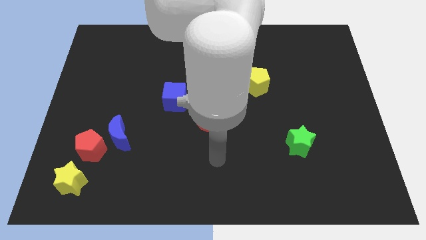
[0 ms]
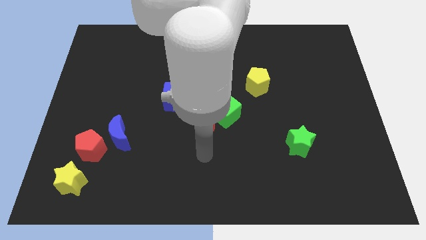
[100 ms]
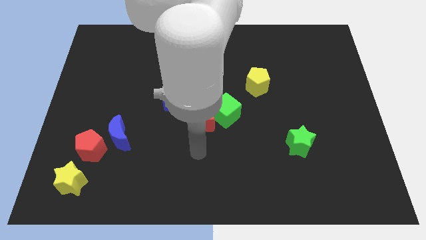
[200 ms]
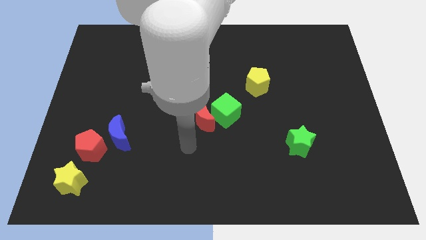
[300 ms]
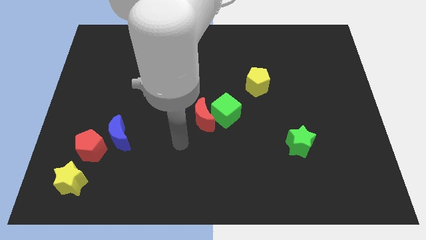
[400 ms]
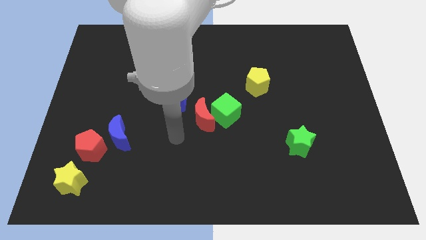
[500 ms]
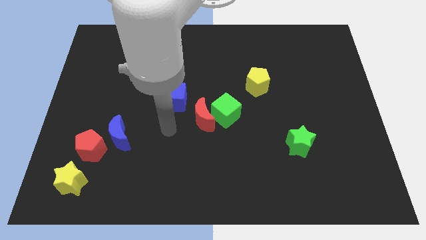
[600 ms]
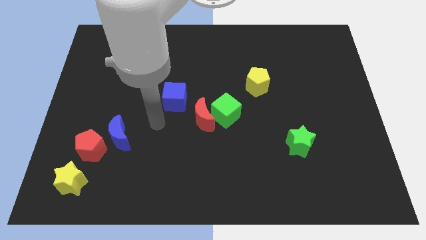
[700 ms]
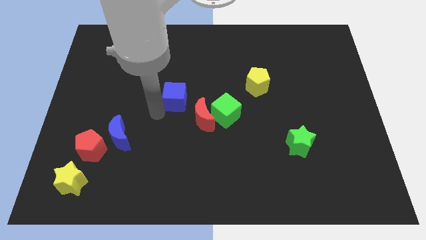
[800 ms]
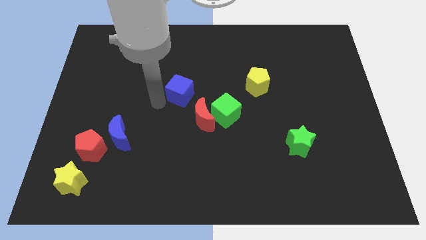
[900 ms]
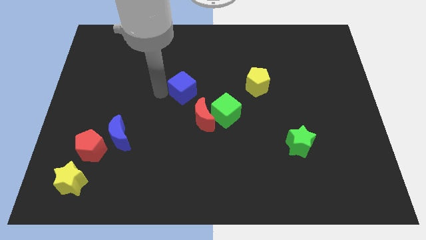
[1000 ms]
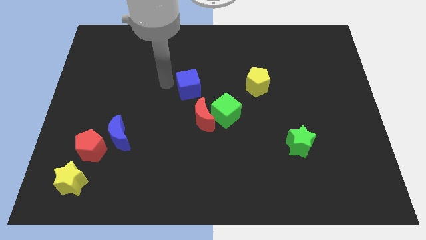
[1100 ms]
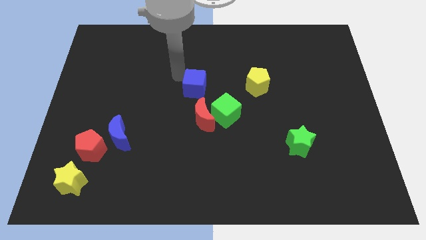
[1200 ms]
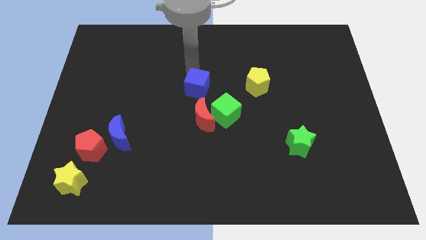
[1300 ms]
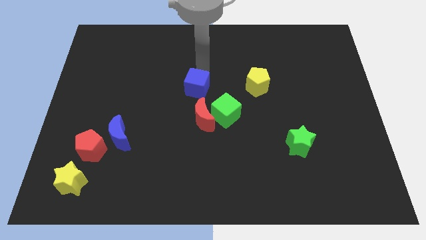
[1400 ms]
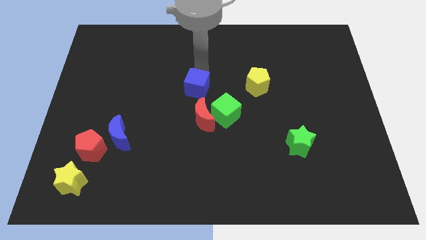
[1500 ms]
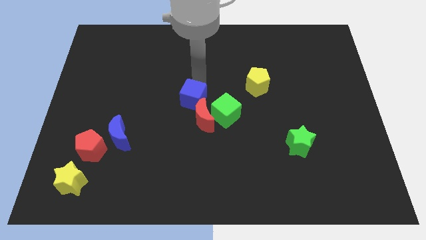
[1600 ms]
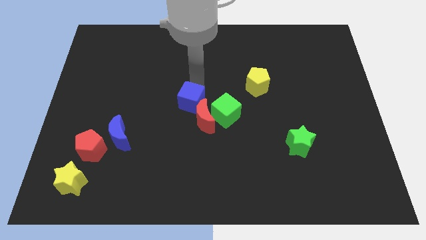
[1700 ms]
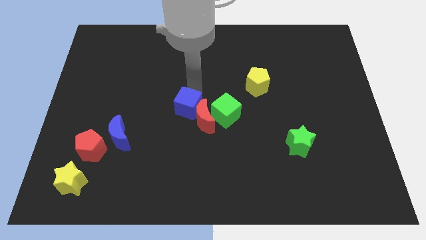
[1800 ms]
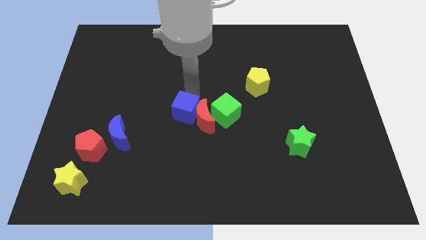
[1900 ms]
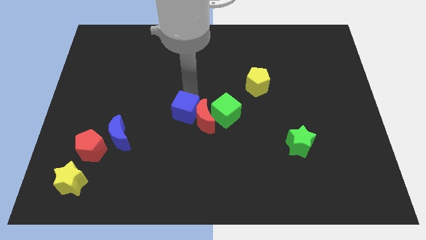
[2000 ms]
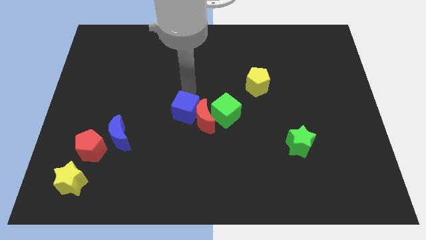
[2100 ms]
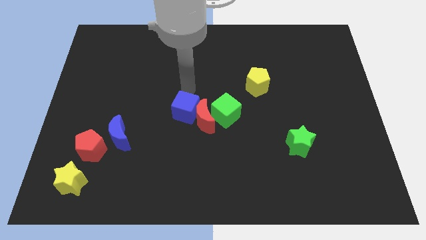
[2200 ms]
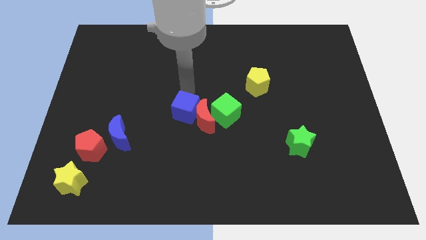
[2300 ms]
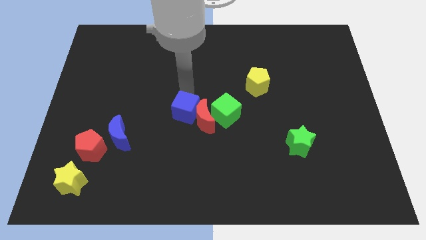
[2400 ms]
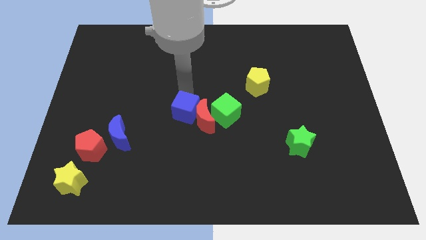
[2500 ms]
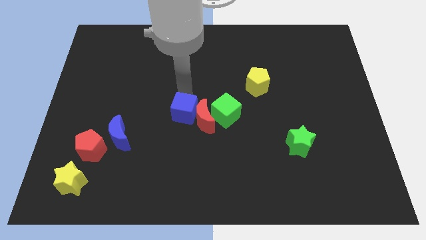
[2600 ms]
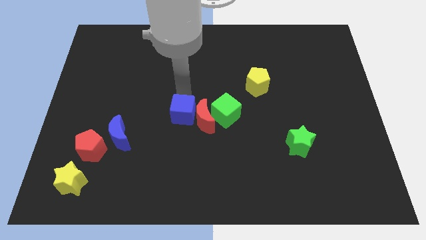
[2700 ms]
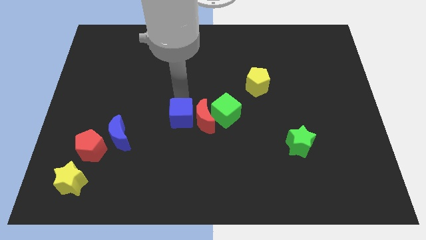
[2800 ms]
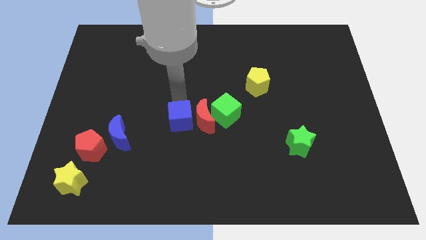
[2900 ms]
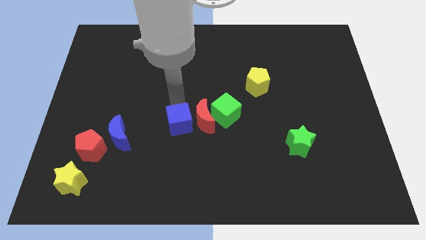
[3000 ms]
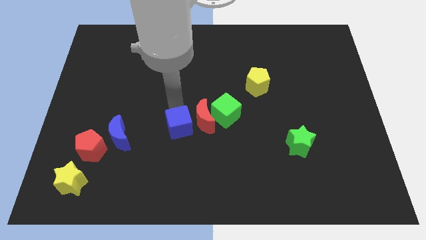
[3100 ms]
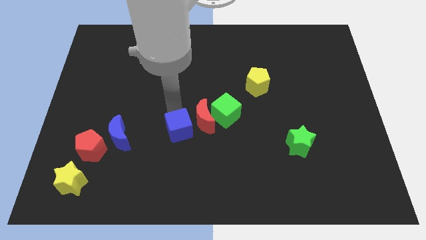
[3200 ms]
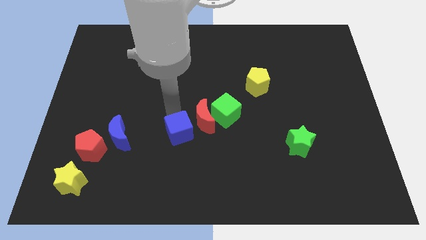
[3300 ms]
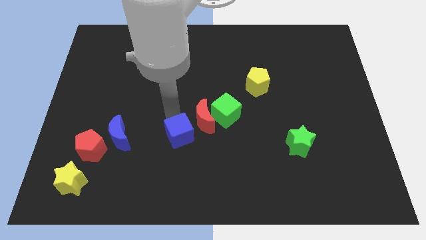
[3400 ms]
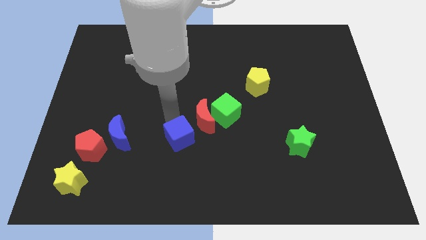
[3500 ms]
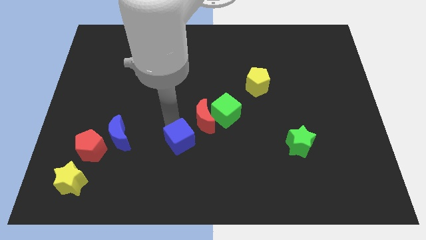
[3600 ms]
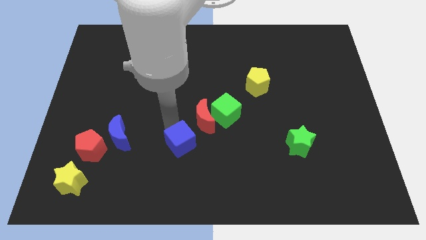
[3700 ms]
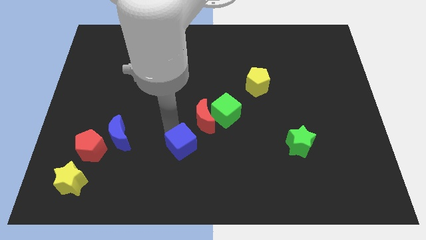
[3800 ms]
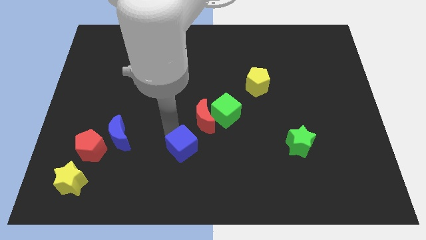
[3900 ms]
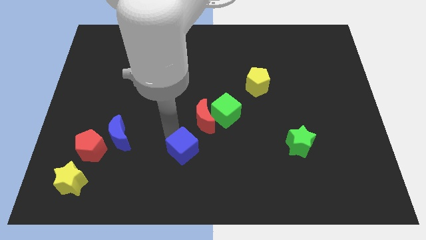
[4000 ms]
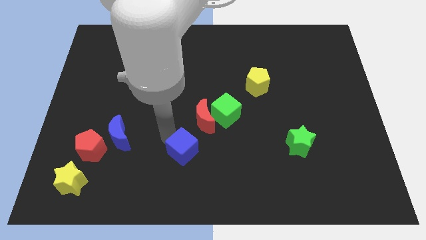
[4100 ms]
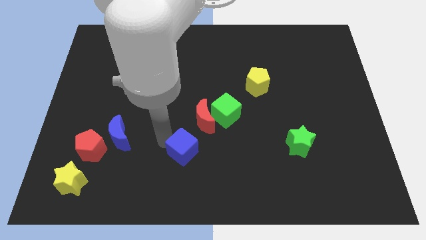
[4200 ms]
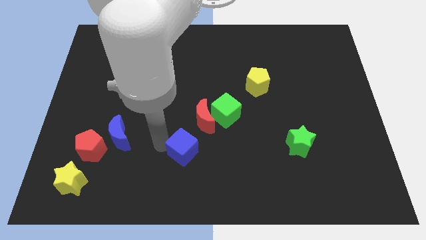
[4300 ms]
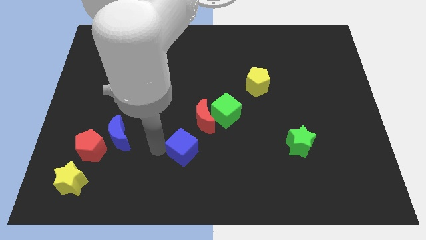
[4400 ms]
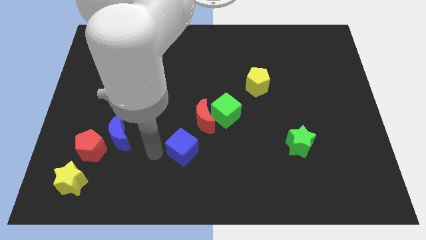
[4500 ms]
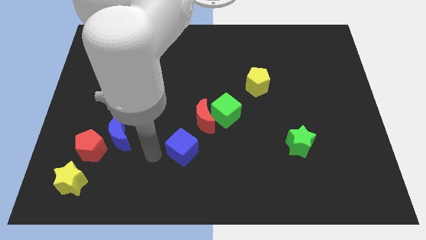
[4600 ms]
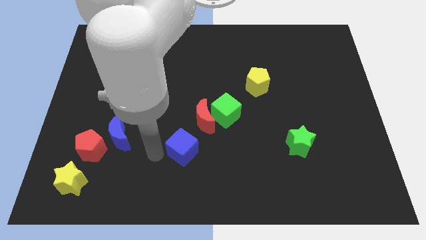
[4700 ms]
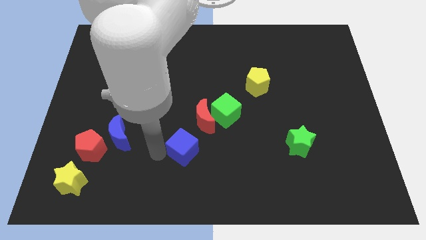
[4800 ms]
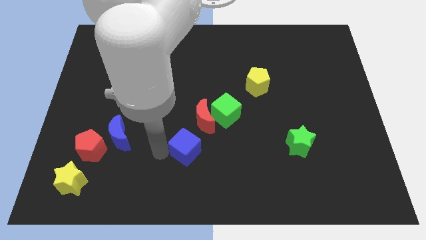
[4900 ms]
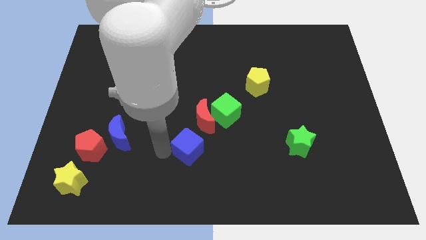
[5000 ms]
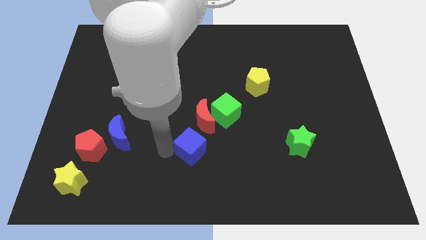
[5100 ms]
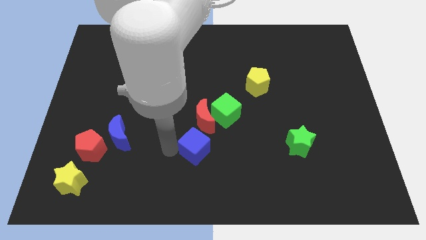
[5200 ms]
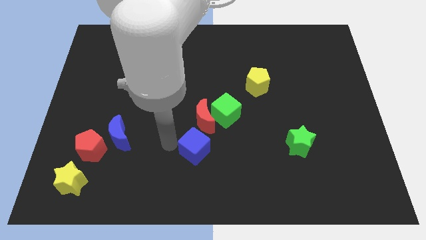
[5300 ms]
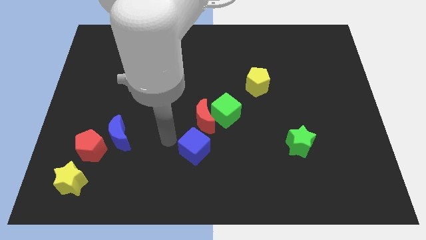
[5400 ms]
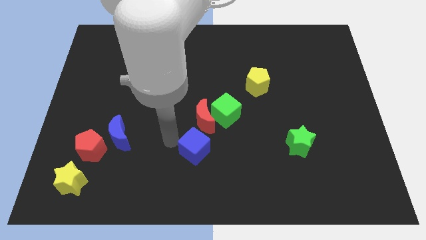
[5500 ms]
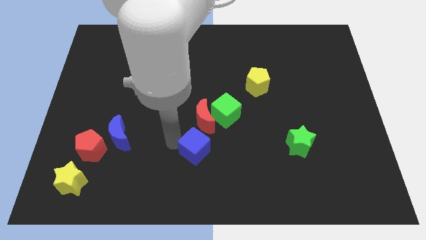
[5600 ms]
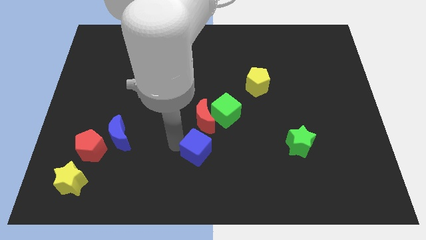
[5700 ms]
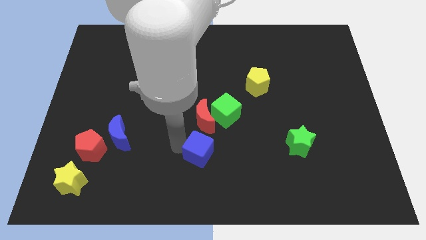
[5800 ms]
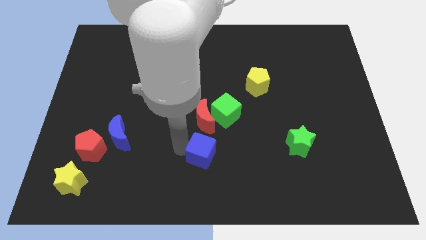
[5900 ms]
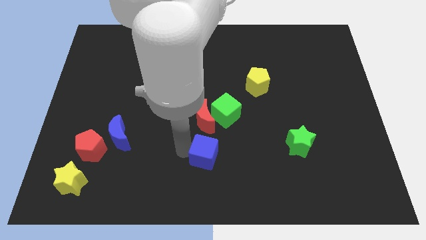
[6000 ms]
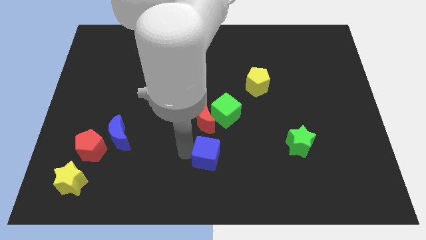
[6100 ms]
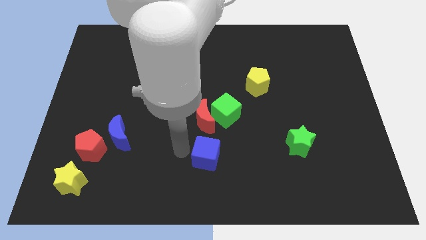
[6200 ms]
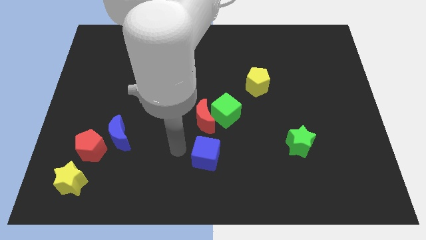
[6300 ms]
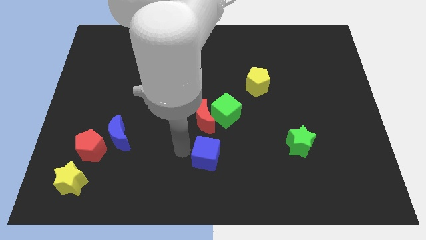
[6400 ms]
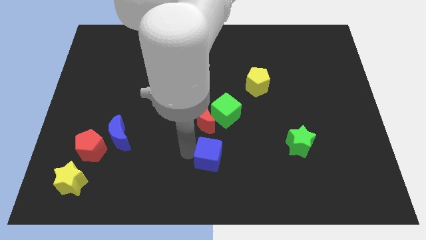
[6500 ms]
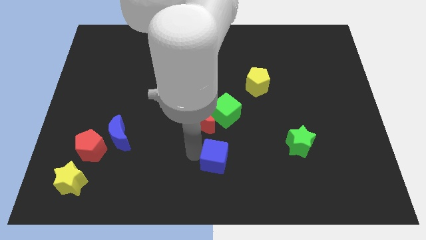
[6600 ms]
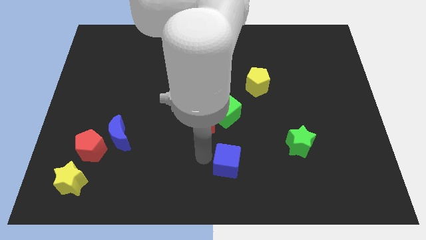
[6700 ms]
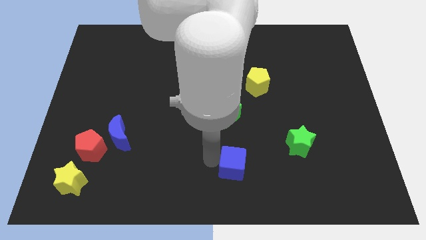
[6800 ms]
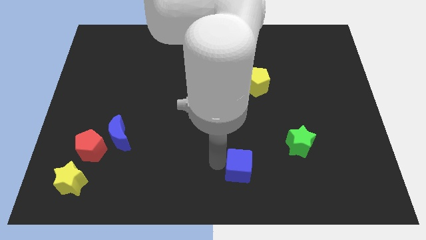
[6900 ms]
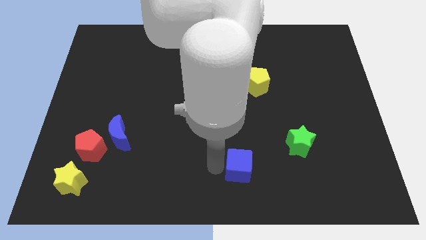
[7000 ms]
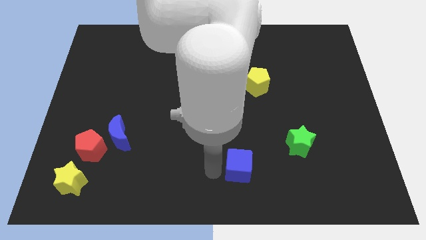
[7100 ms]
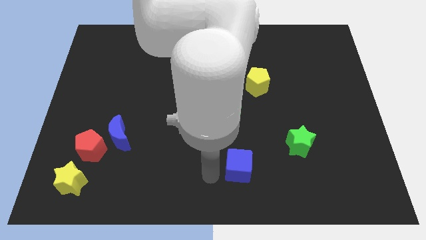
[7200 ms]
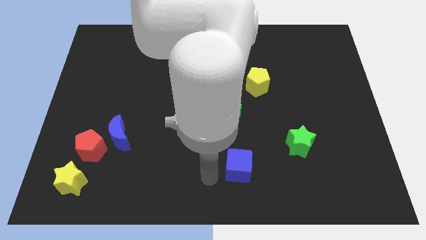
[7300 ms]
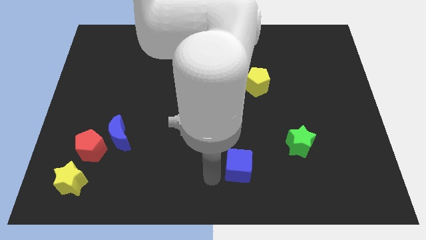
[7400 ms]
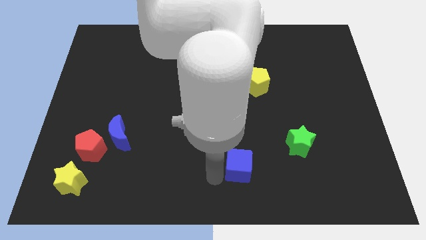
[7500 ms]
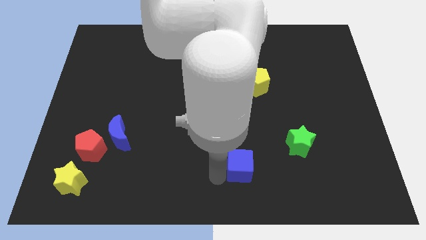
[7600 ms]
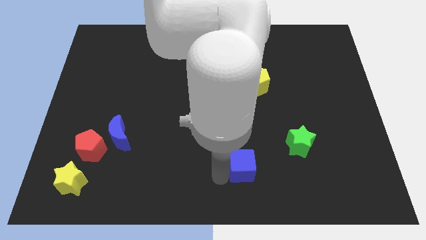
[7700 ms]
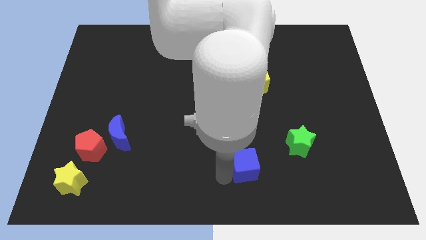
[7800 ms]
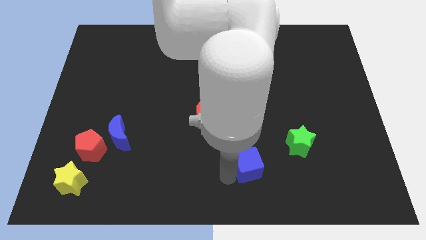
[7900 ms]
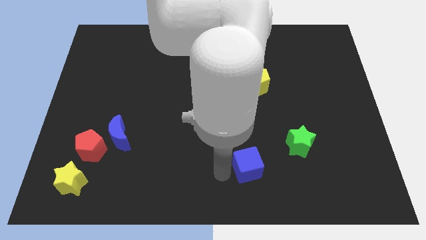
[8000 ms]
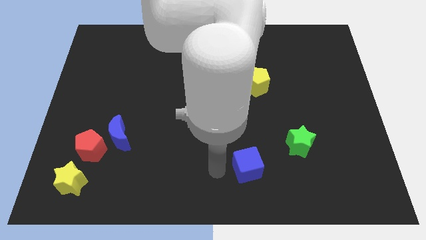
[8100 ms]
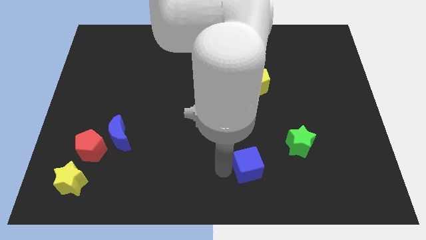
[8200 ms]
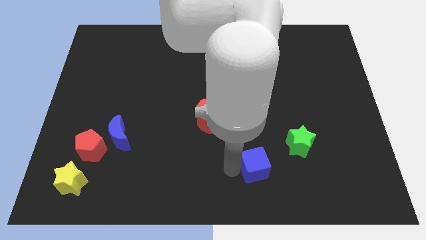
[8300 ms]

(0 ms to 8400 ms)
push the blue cube to the bottom left side of the green star
